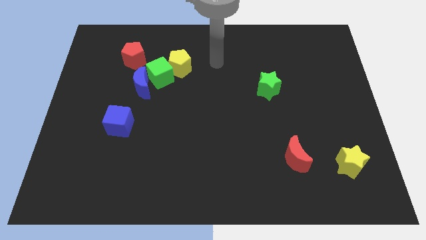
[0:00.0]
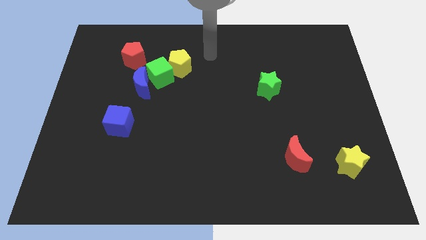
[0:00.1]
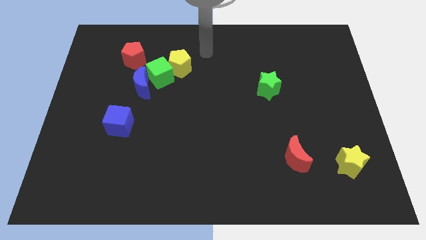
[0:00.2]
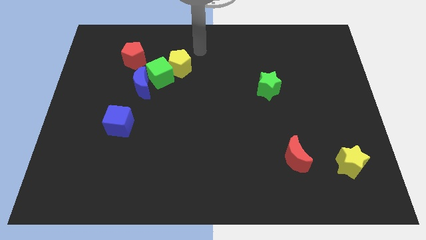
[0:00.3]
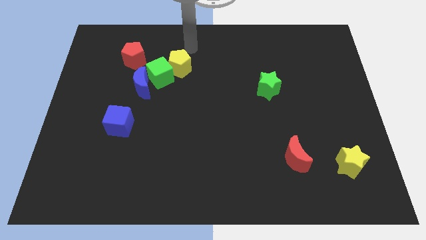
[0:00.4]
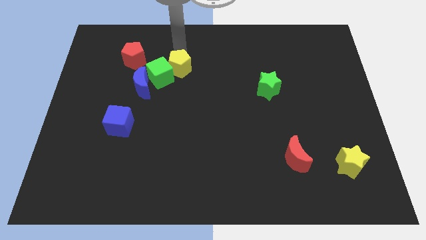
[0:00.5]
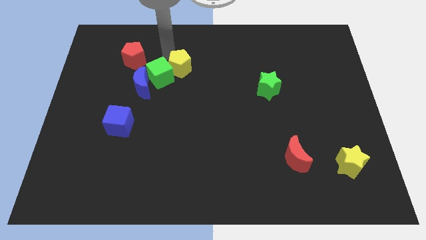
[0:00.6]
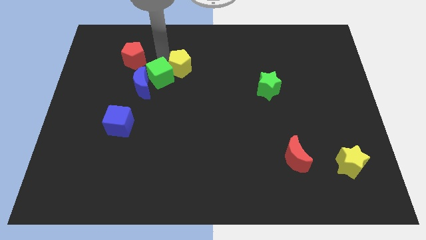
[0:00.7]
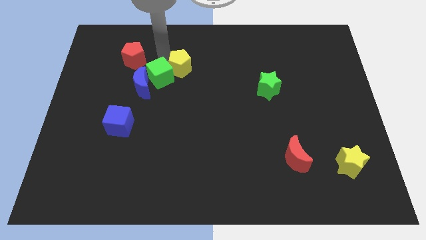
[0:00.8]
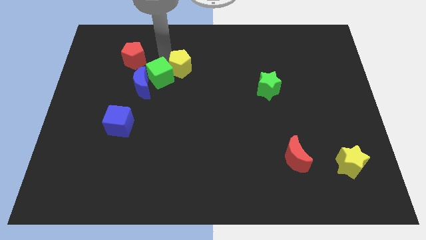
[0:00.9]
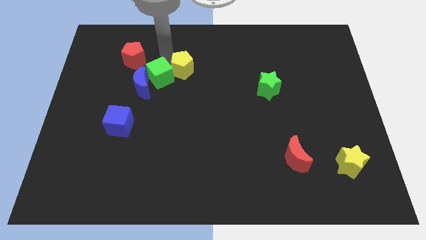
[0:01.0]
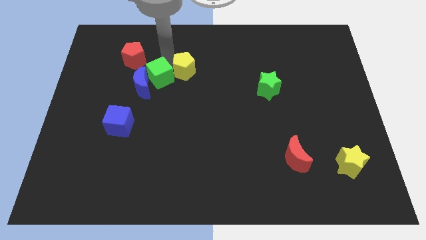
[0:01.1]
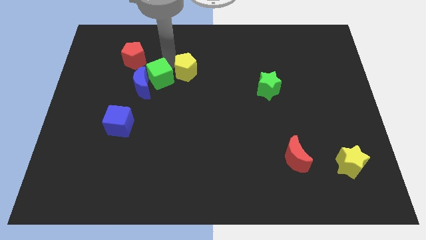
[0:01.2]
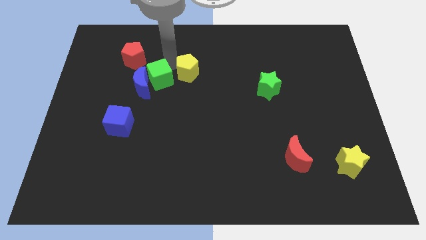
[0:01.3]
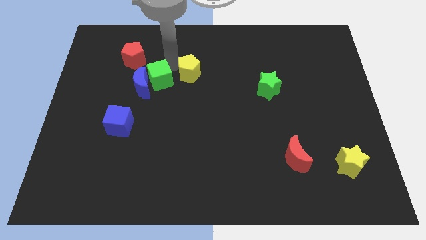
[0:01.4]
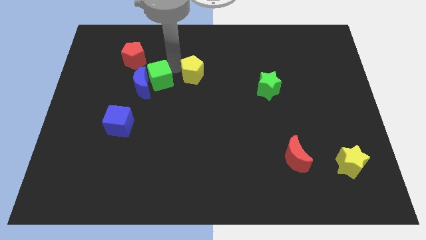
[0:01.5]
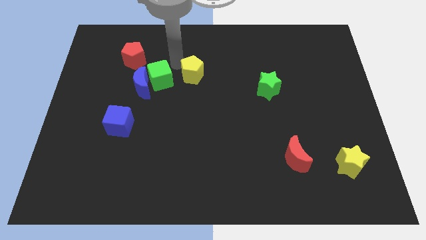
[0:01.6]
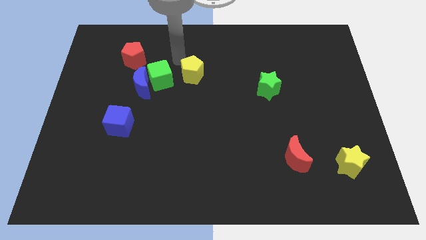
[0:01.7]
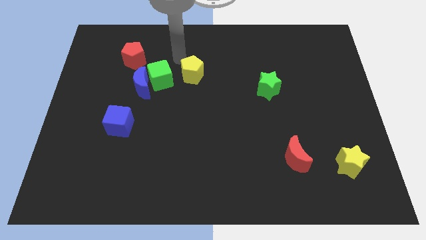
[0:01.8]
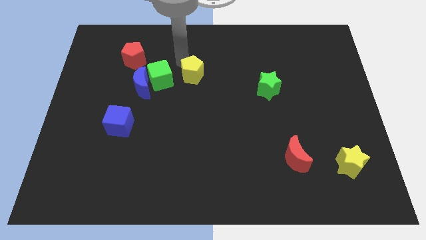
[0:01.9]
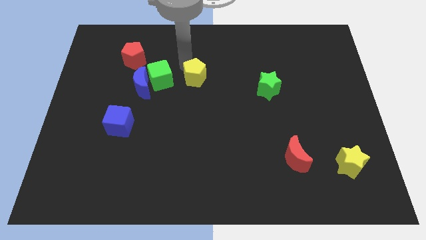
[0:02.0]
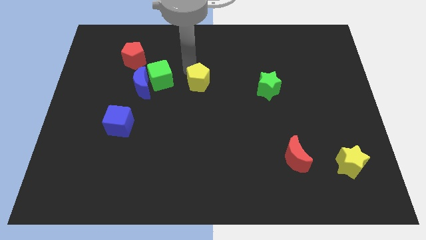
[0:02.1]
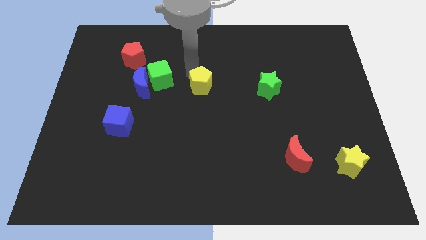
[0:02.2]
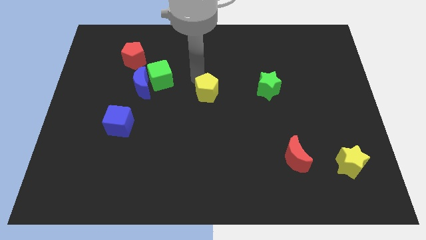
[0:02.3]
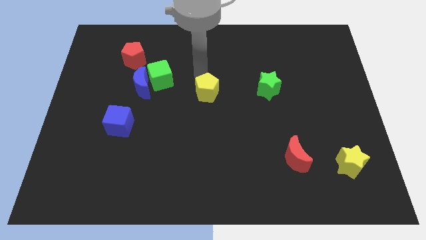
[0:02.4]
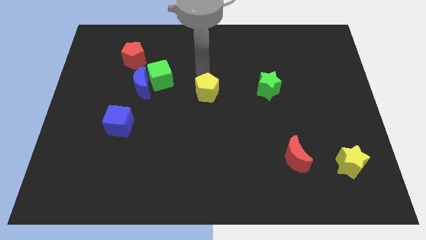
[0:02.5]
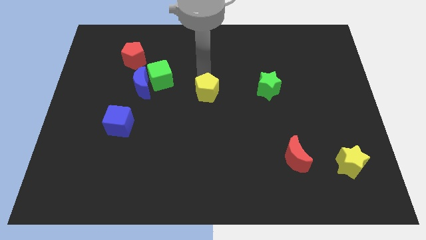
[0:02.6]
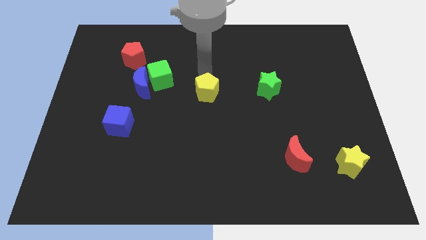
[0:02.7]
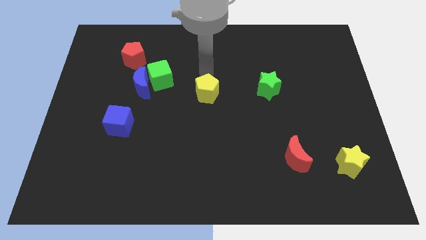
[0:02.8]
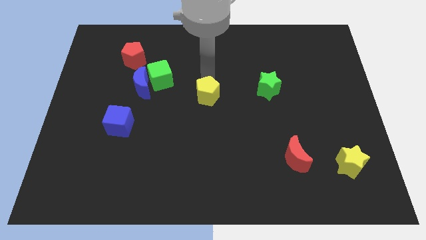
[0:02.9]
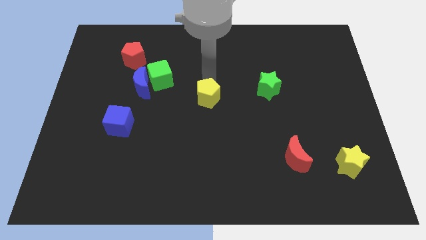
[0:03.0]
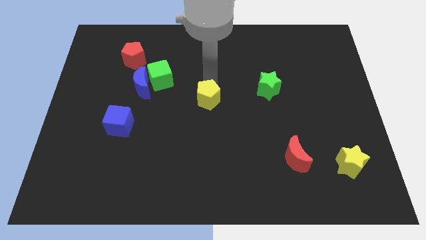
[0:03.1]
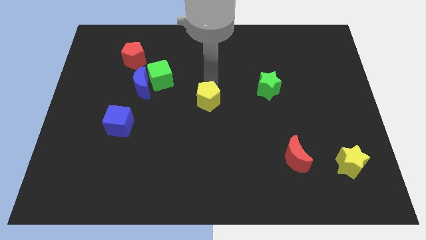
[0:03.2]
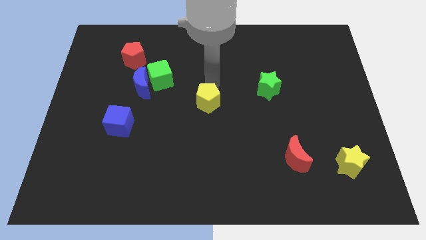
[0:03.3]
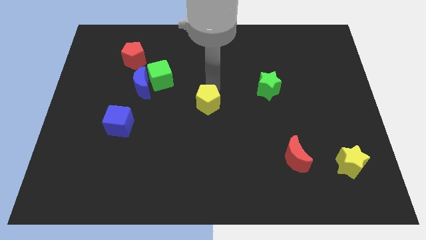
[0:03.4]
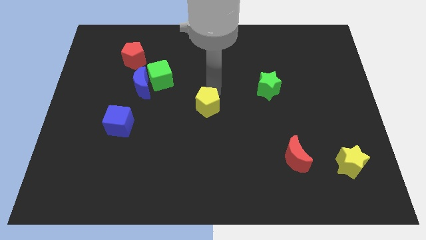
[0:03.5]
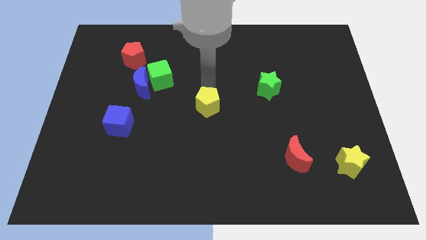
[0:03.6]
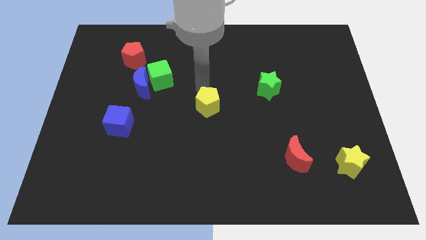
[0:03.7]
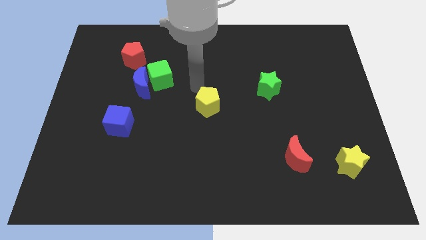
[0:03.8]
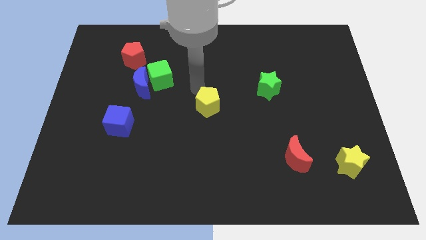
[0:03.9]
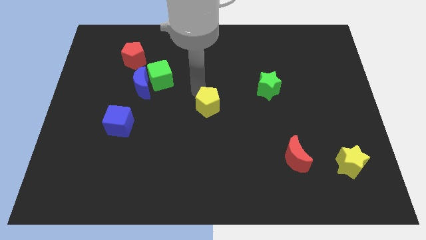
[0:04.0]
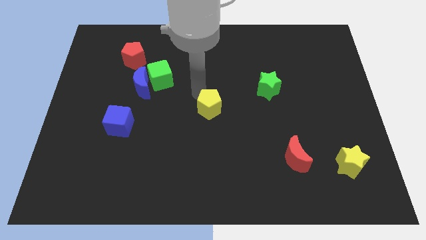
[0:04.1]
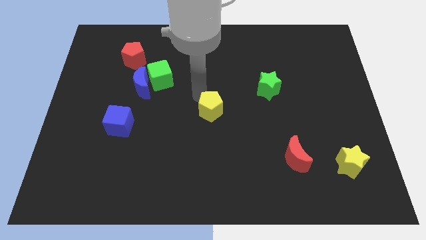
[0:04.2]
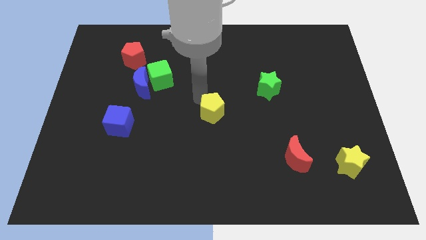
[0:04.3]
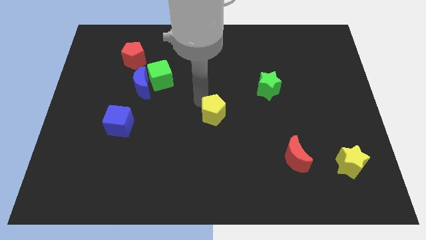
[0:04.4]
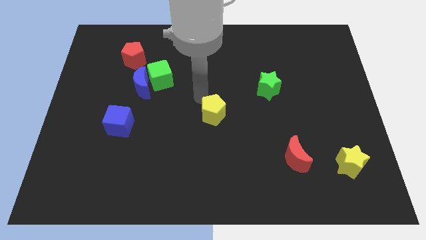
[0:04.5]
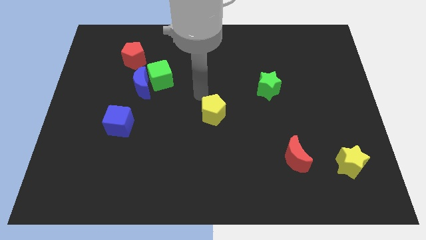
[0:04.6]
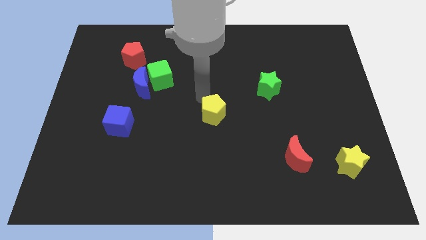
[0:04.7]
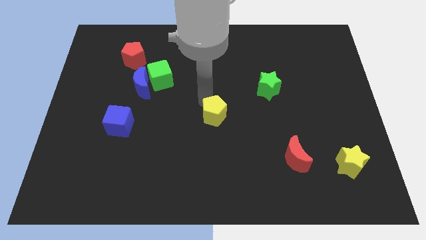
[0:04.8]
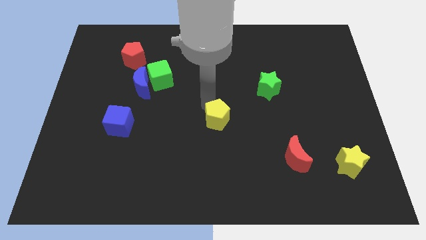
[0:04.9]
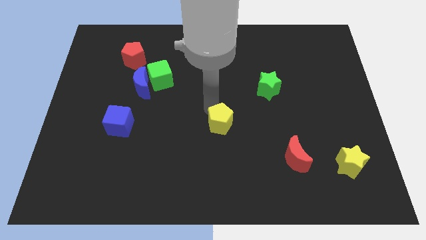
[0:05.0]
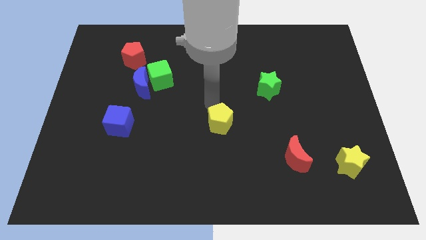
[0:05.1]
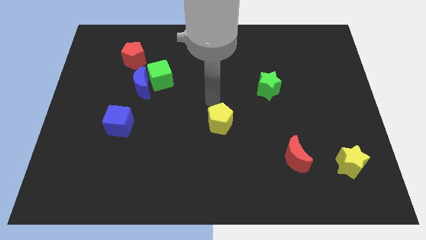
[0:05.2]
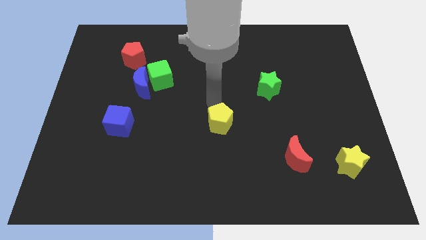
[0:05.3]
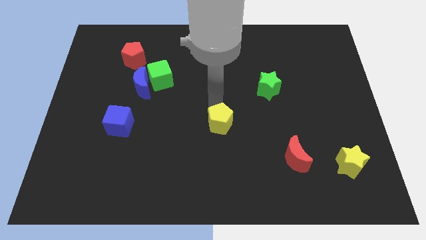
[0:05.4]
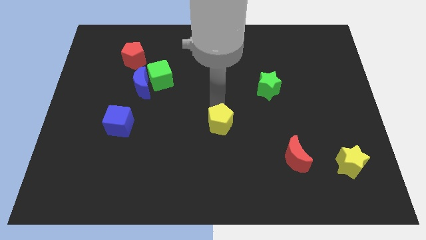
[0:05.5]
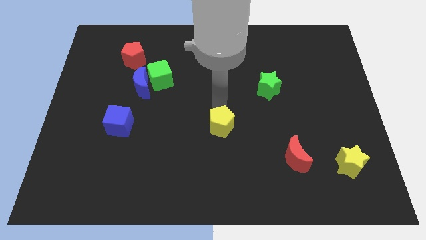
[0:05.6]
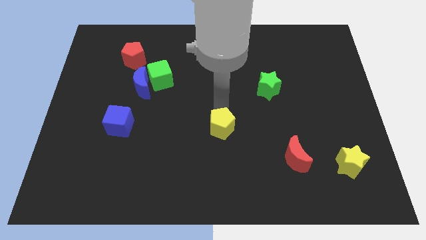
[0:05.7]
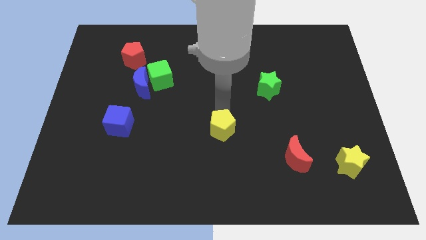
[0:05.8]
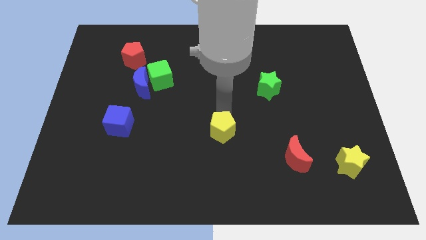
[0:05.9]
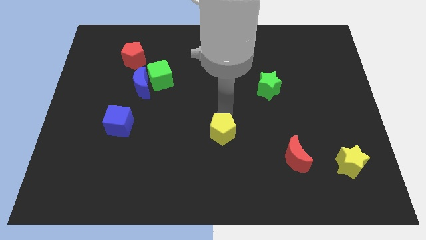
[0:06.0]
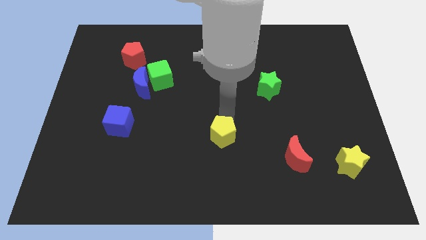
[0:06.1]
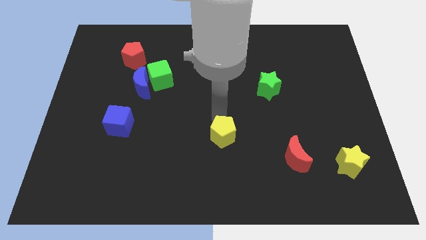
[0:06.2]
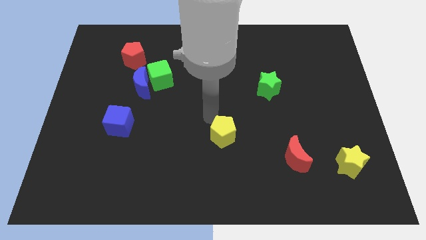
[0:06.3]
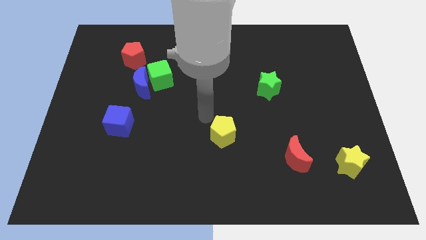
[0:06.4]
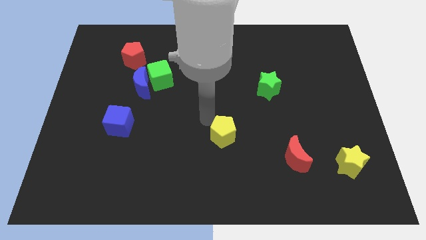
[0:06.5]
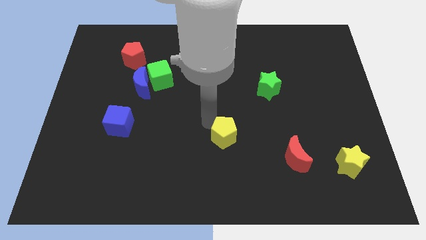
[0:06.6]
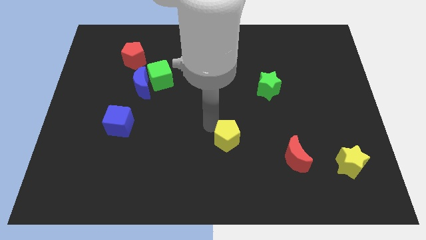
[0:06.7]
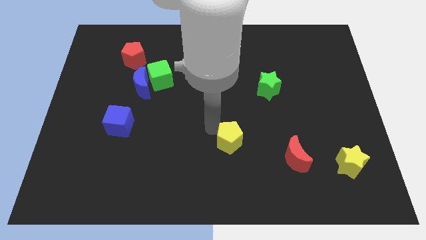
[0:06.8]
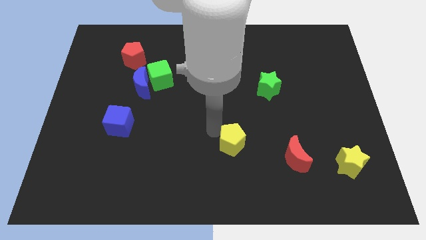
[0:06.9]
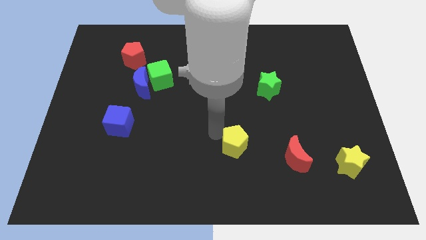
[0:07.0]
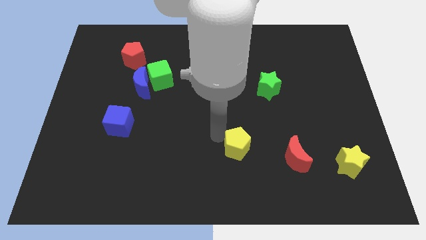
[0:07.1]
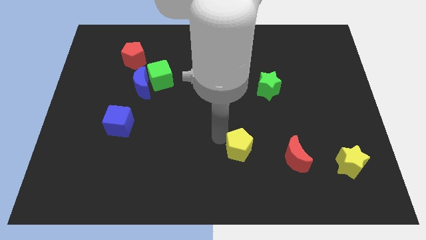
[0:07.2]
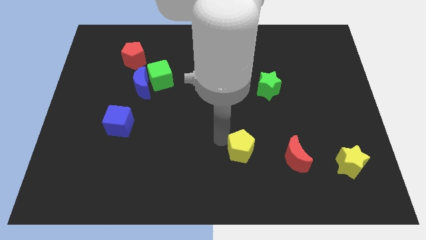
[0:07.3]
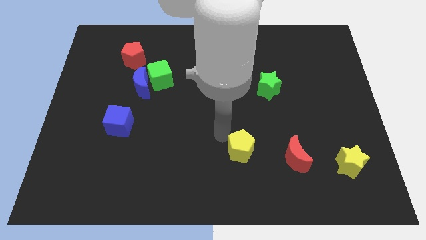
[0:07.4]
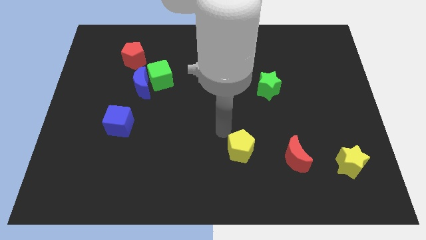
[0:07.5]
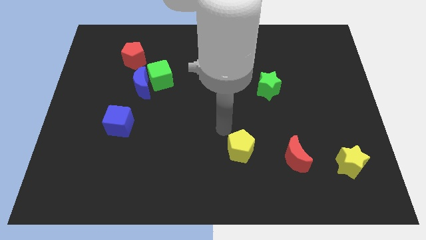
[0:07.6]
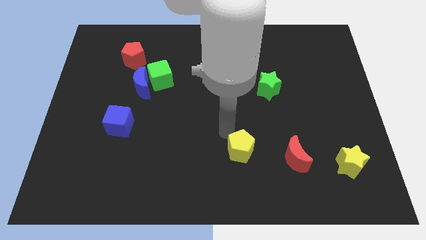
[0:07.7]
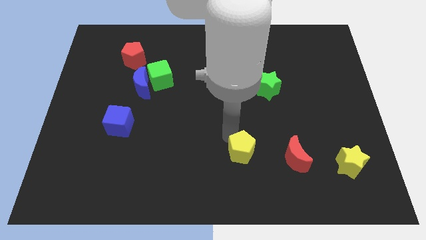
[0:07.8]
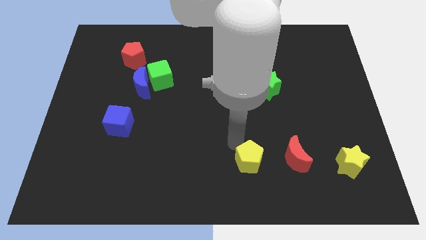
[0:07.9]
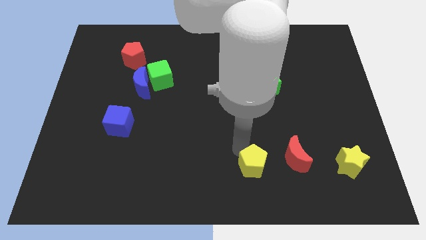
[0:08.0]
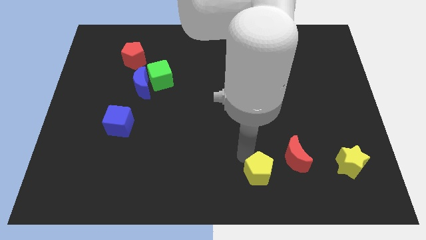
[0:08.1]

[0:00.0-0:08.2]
push the yellow pentagon to the bottom left side of the red moon
